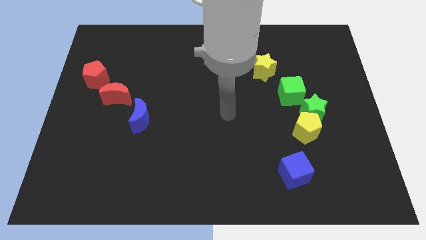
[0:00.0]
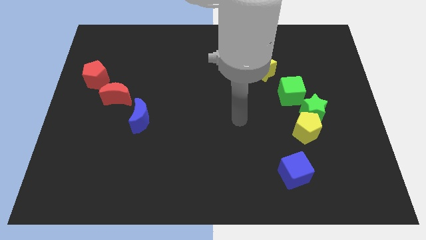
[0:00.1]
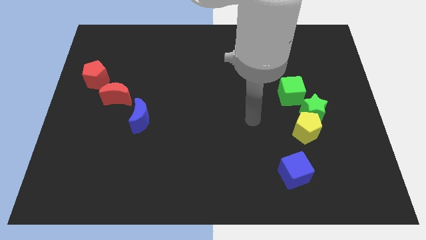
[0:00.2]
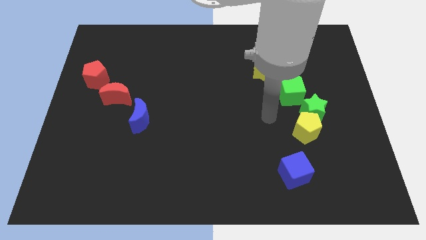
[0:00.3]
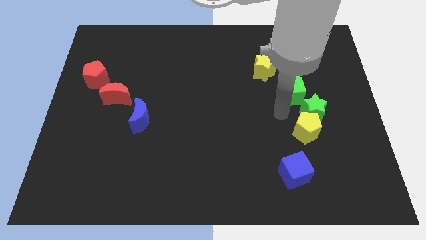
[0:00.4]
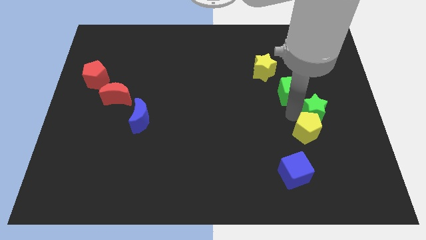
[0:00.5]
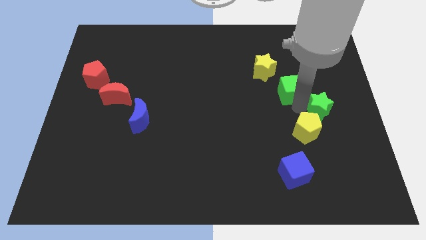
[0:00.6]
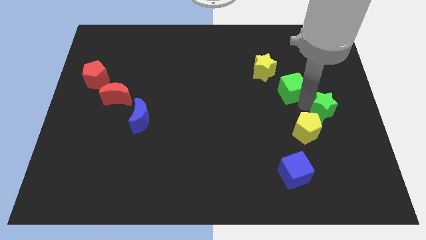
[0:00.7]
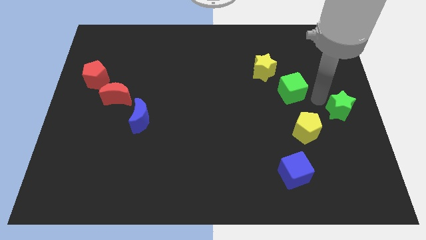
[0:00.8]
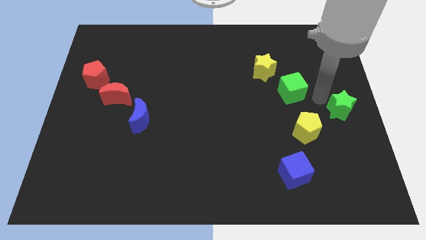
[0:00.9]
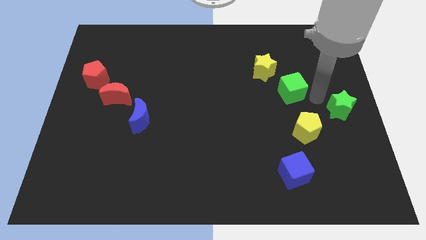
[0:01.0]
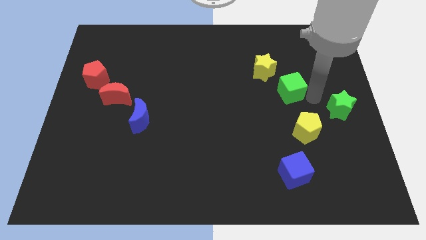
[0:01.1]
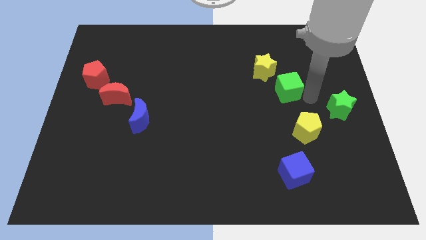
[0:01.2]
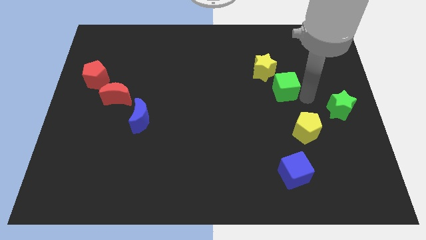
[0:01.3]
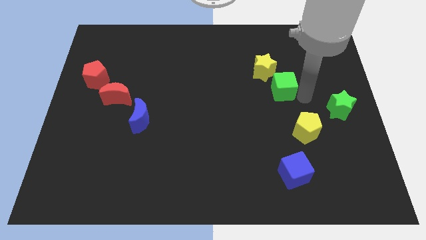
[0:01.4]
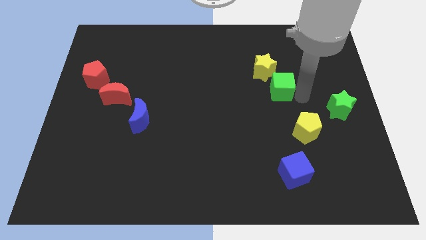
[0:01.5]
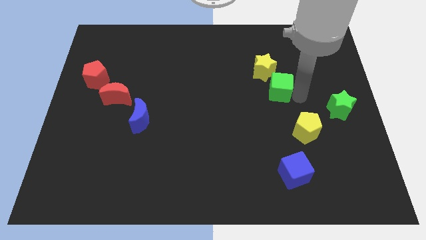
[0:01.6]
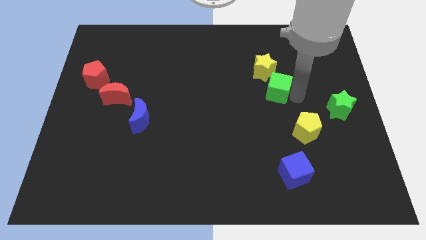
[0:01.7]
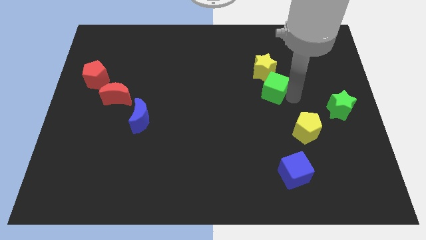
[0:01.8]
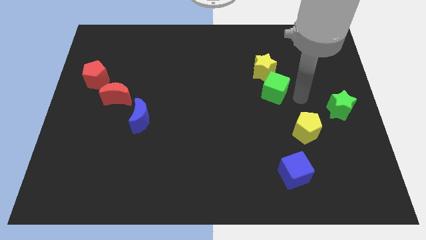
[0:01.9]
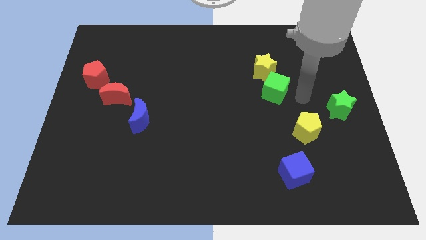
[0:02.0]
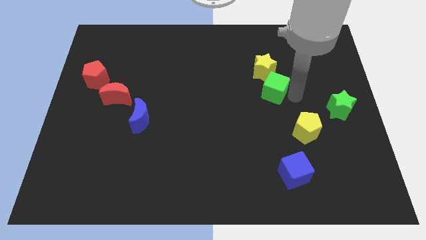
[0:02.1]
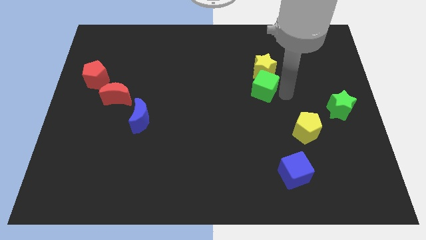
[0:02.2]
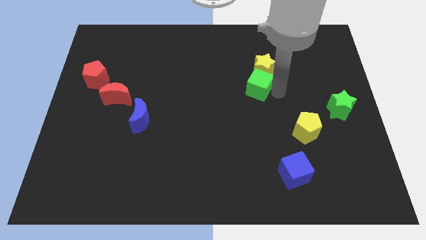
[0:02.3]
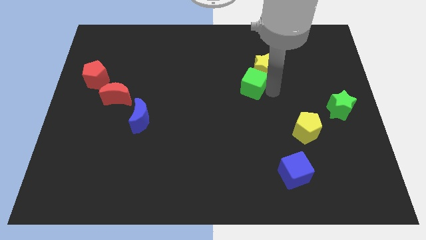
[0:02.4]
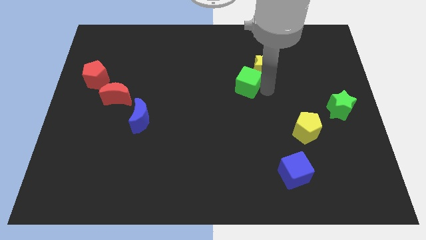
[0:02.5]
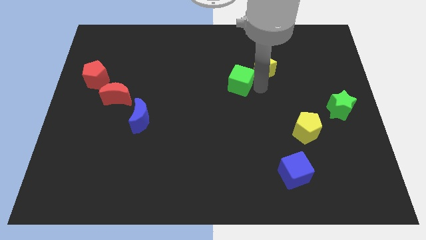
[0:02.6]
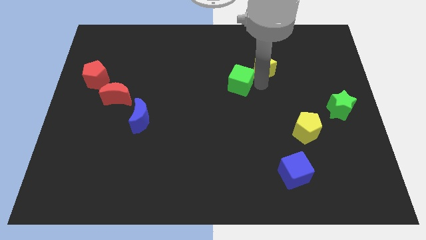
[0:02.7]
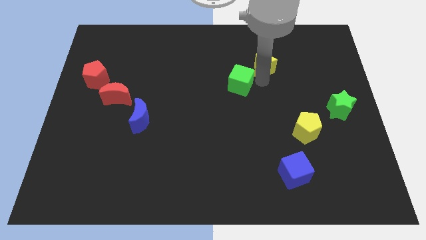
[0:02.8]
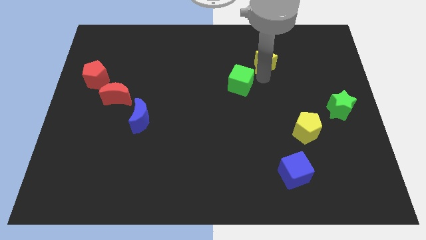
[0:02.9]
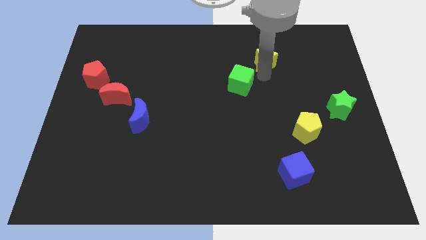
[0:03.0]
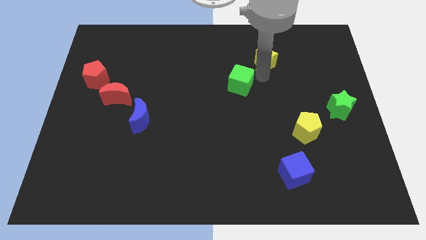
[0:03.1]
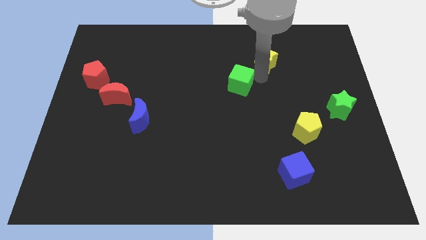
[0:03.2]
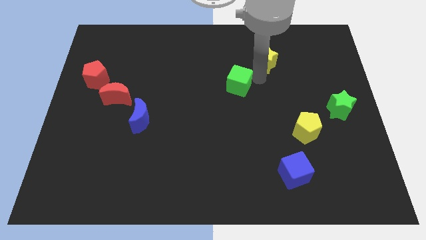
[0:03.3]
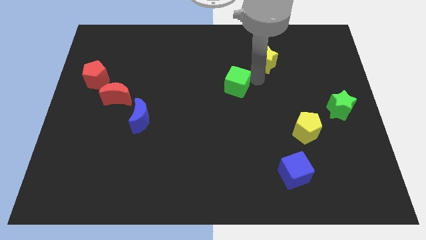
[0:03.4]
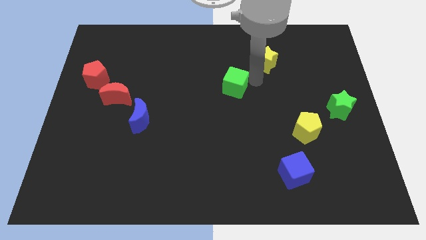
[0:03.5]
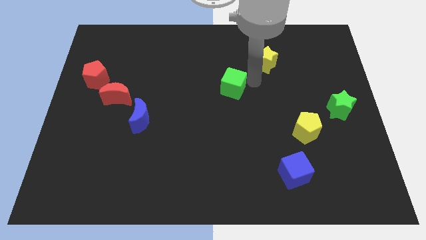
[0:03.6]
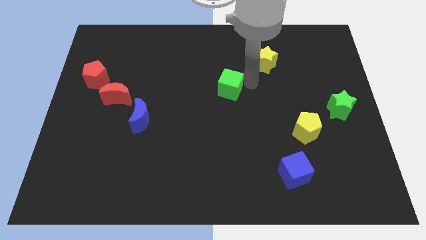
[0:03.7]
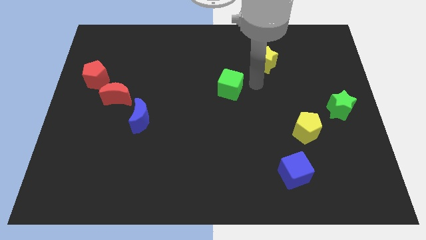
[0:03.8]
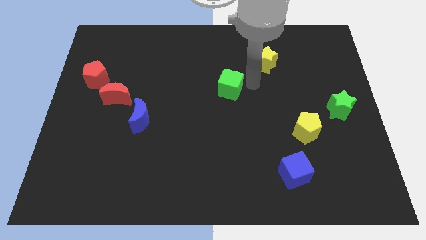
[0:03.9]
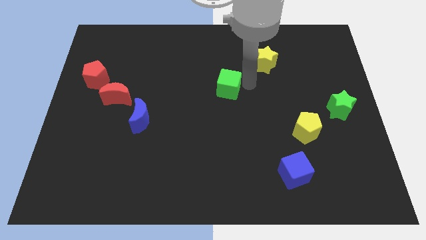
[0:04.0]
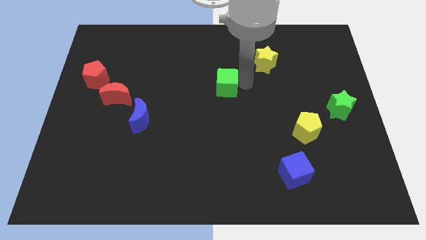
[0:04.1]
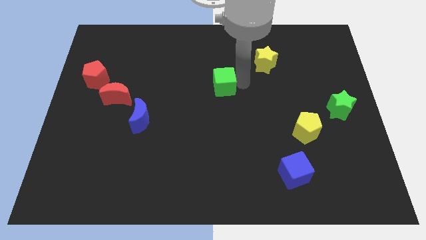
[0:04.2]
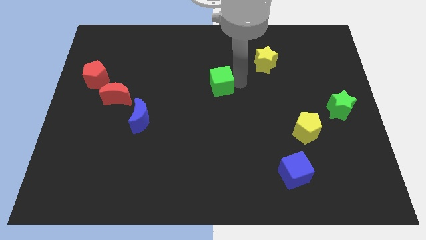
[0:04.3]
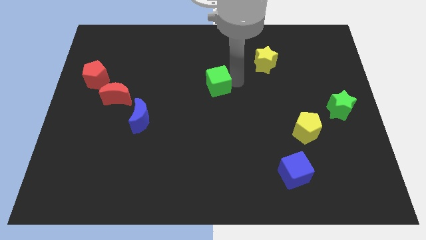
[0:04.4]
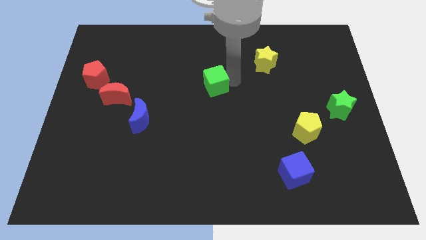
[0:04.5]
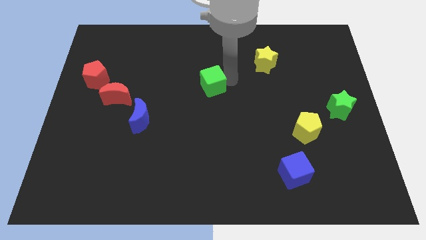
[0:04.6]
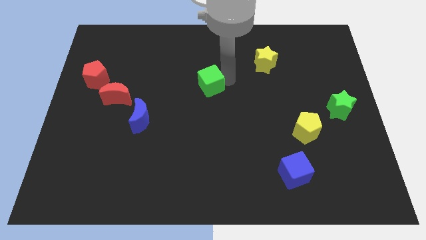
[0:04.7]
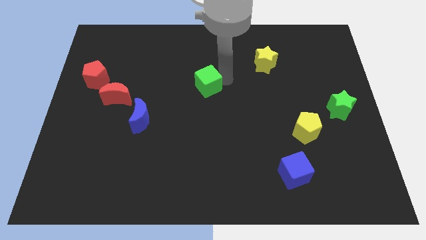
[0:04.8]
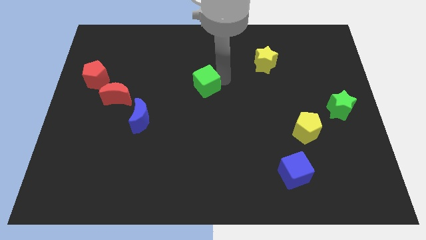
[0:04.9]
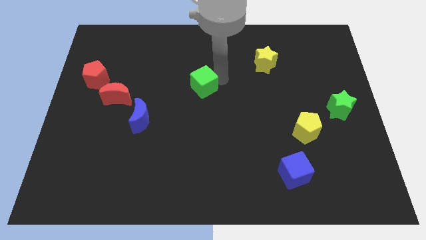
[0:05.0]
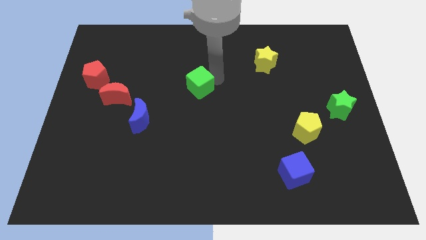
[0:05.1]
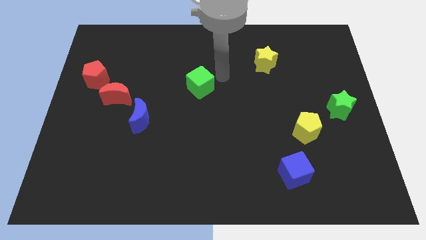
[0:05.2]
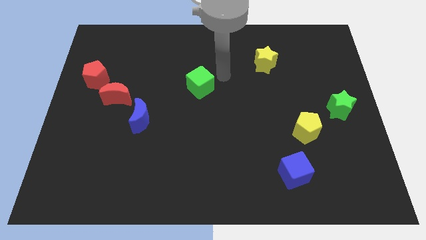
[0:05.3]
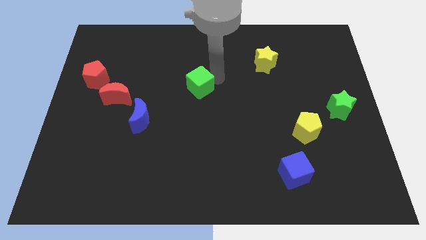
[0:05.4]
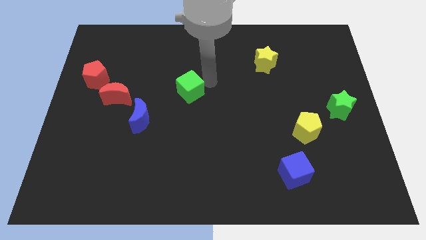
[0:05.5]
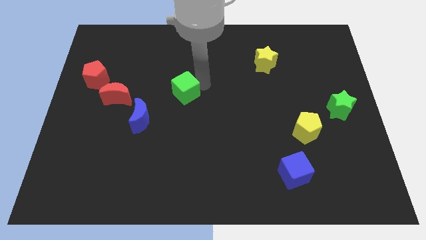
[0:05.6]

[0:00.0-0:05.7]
put the green cube diagonally up and to the right of the blue moon

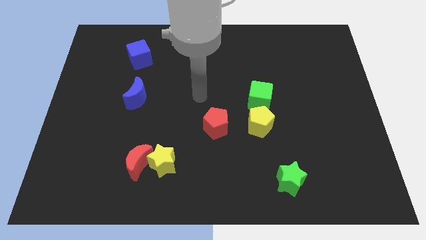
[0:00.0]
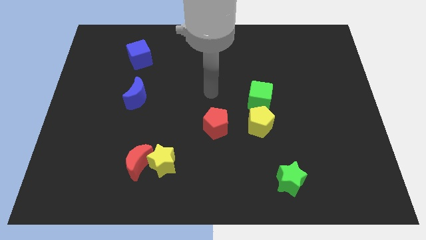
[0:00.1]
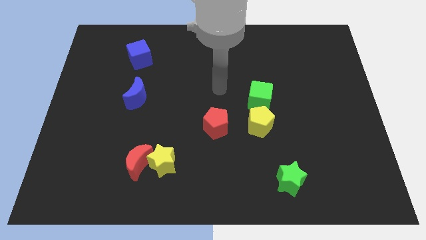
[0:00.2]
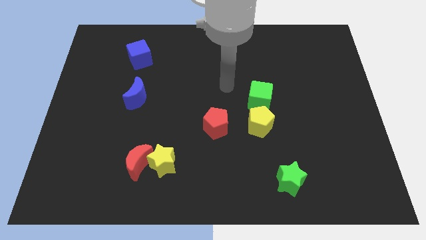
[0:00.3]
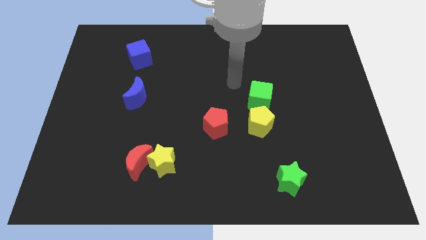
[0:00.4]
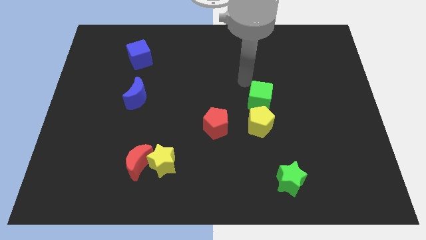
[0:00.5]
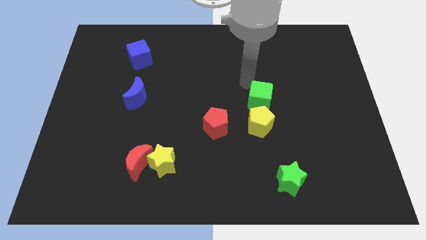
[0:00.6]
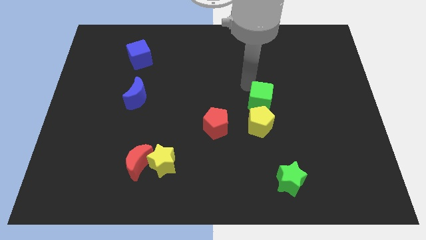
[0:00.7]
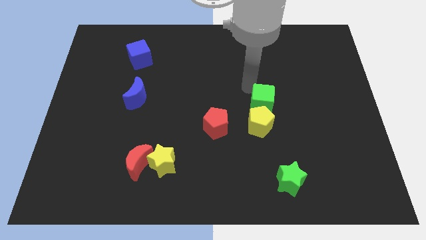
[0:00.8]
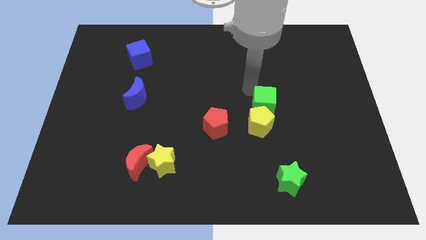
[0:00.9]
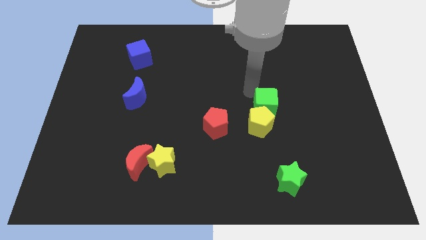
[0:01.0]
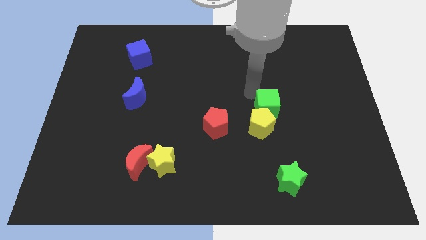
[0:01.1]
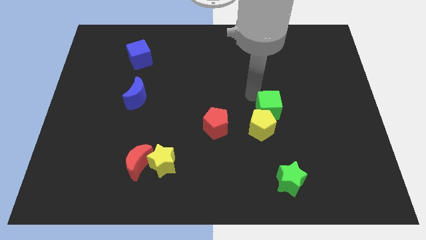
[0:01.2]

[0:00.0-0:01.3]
slide the green cube to the right side of the red pentagon

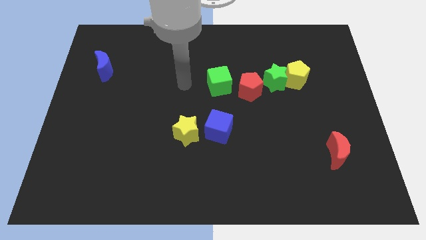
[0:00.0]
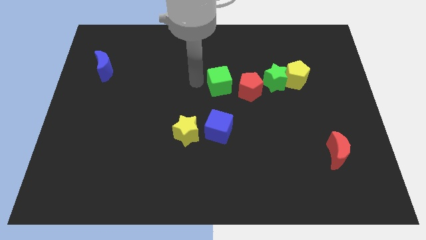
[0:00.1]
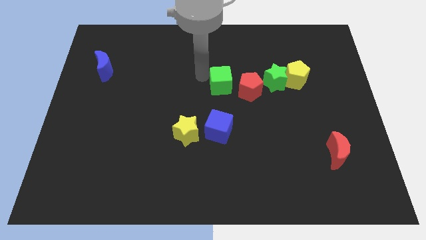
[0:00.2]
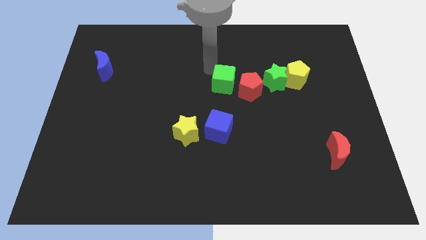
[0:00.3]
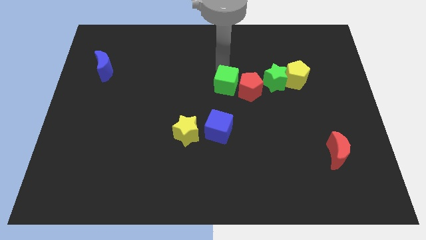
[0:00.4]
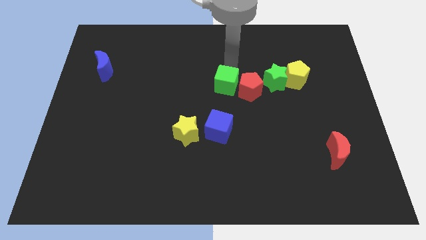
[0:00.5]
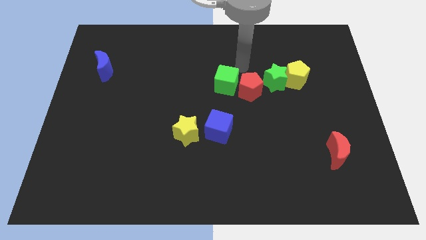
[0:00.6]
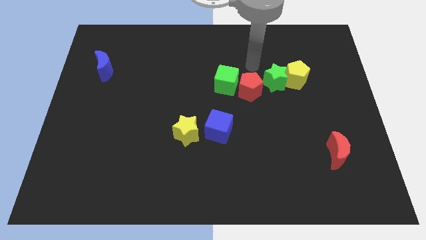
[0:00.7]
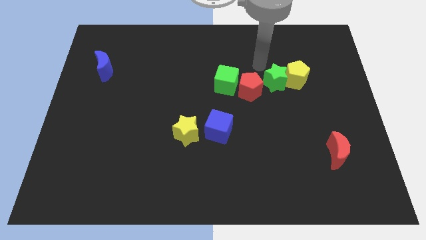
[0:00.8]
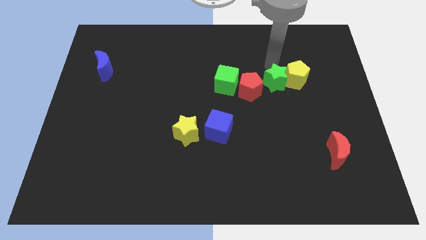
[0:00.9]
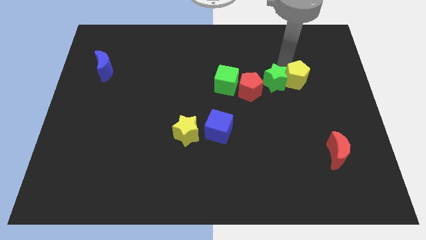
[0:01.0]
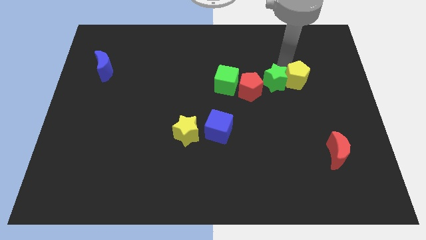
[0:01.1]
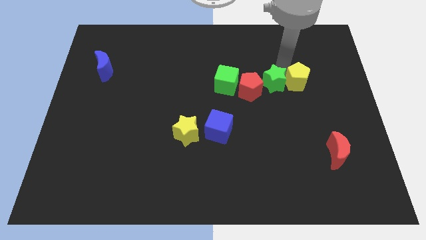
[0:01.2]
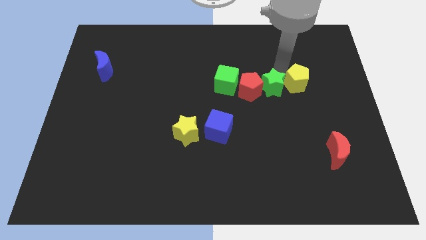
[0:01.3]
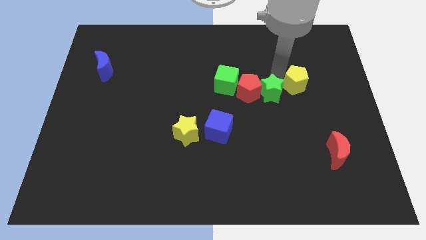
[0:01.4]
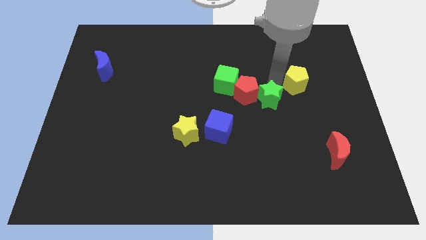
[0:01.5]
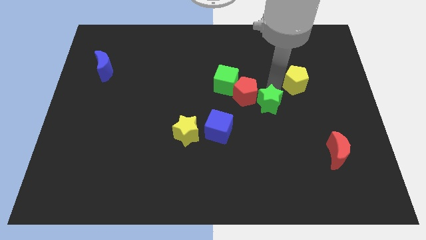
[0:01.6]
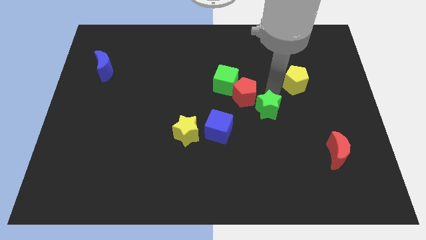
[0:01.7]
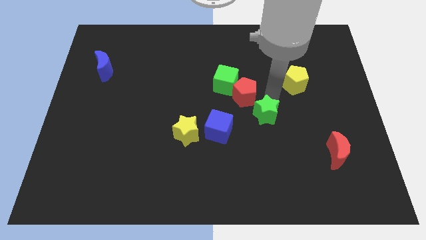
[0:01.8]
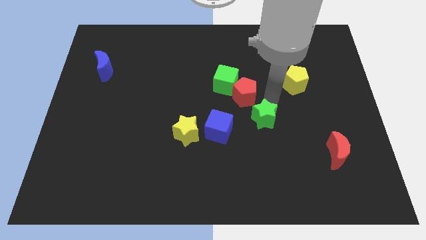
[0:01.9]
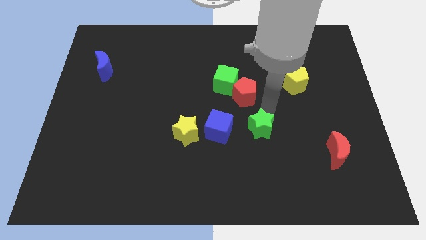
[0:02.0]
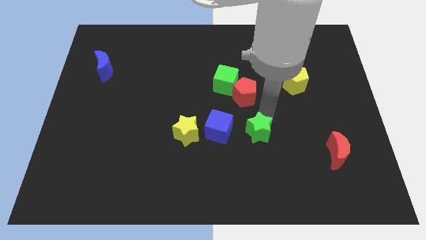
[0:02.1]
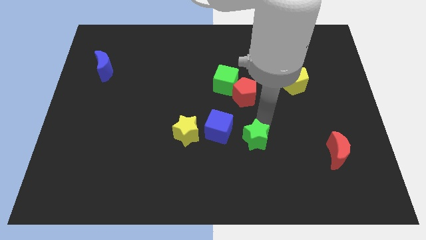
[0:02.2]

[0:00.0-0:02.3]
push the green star diagonally down and to the right of the blue cube
